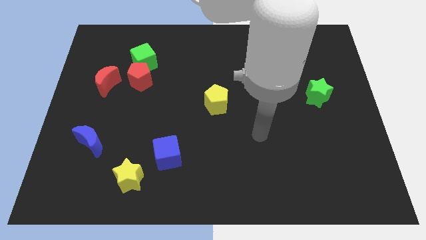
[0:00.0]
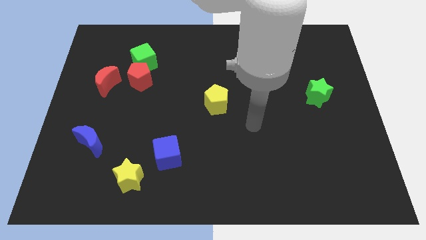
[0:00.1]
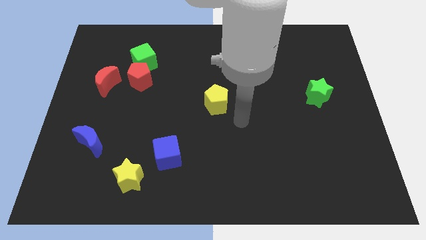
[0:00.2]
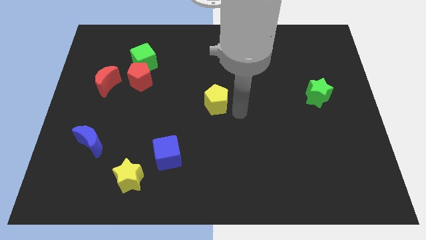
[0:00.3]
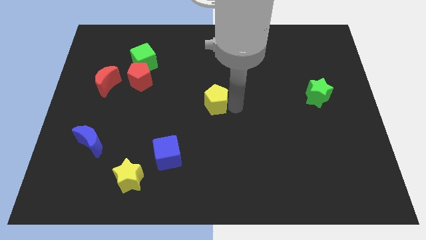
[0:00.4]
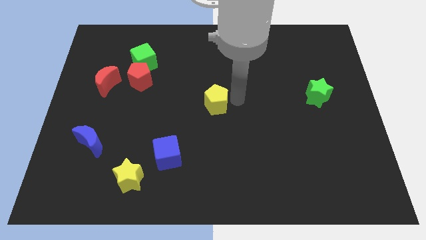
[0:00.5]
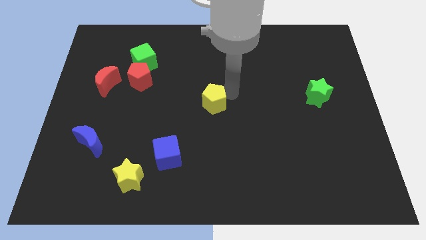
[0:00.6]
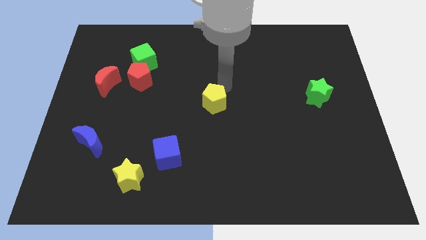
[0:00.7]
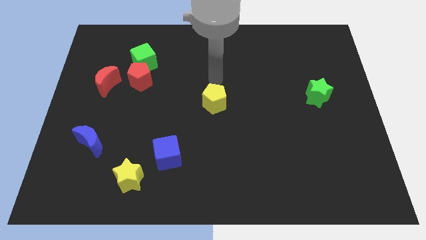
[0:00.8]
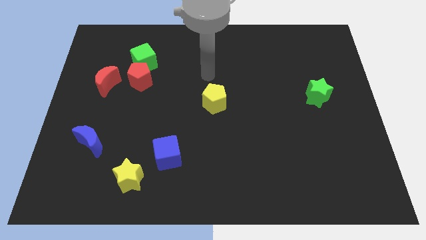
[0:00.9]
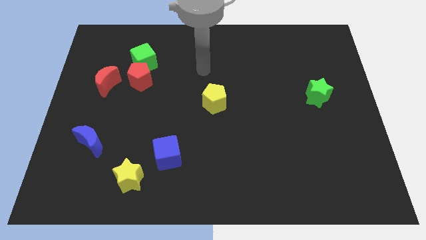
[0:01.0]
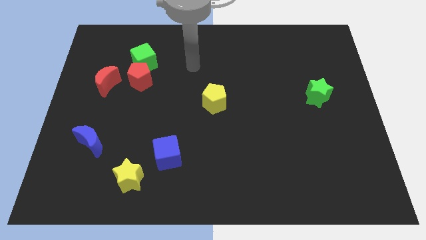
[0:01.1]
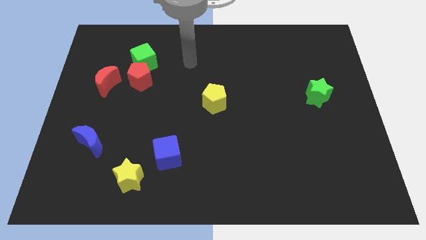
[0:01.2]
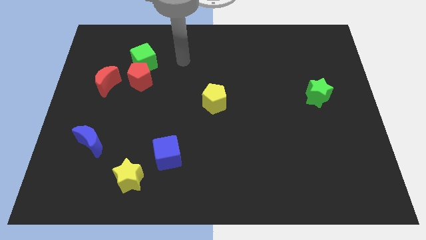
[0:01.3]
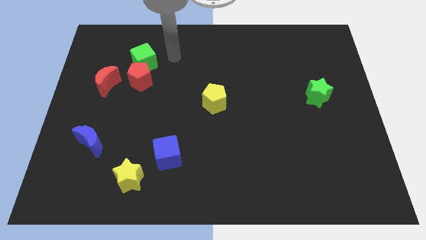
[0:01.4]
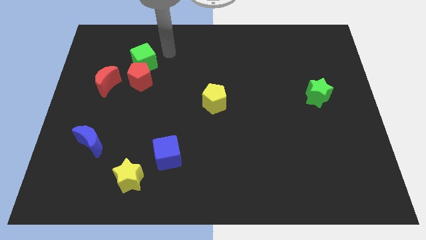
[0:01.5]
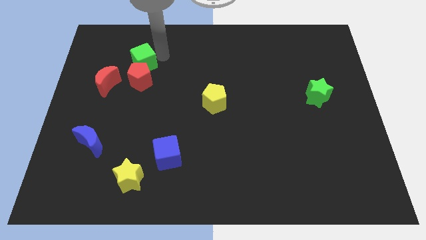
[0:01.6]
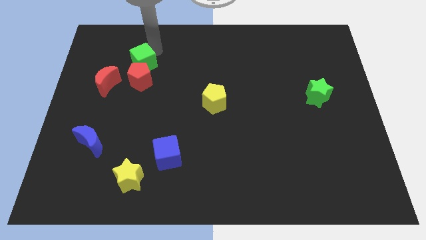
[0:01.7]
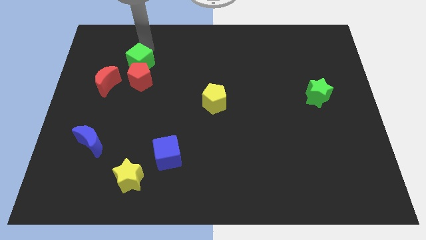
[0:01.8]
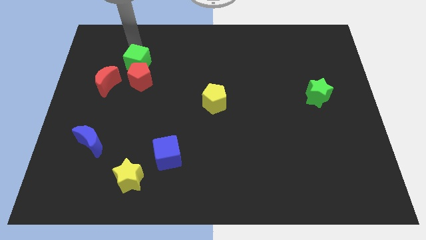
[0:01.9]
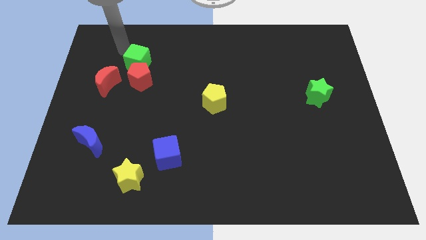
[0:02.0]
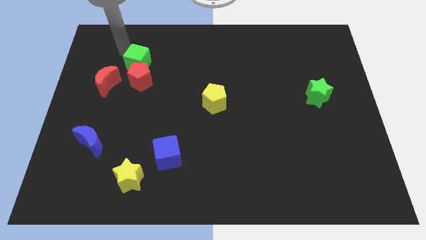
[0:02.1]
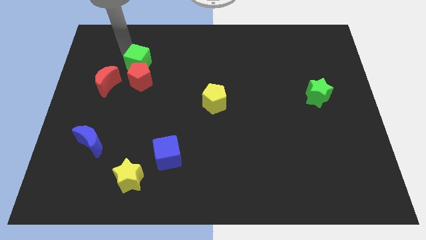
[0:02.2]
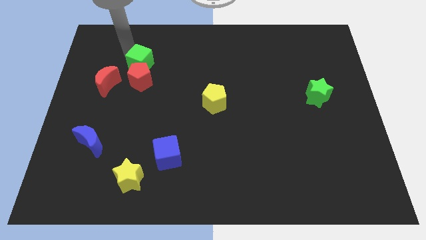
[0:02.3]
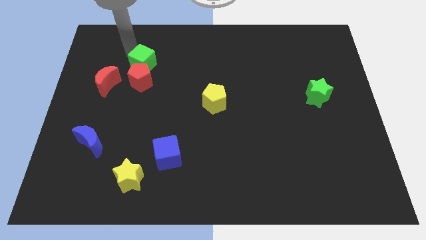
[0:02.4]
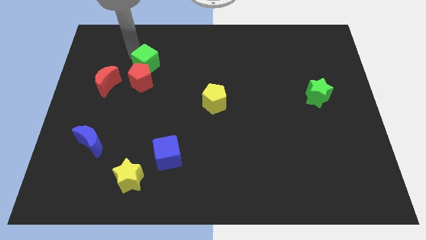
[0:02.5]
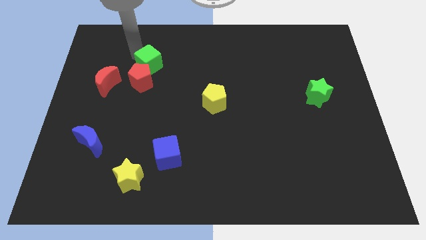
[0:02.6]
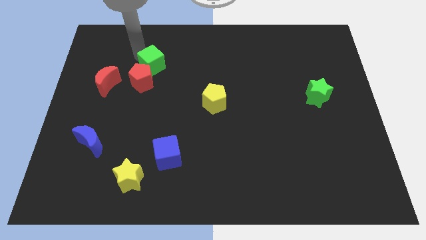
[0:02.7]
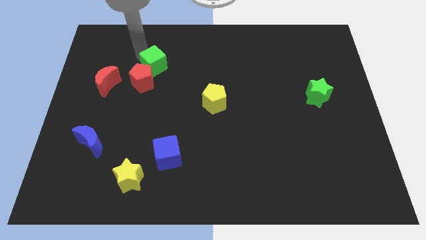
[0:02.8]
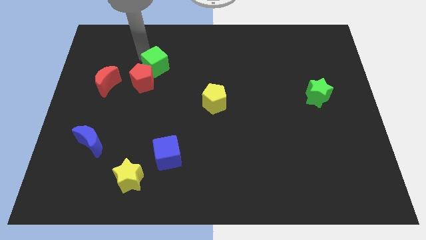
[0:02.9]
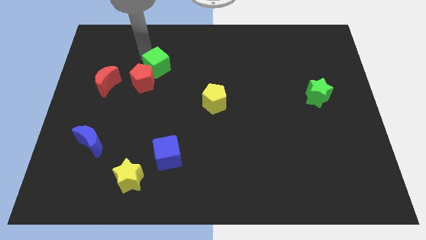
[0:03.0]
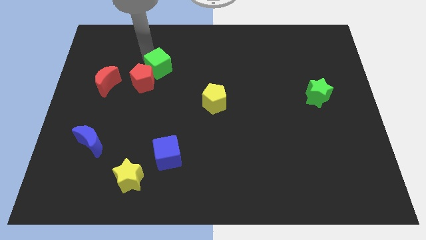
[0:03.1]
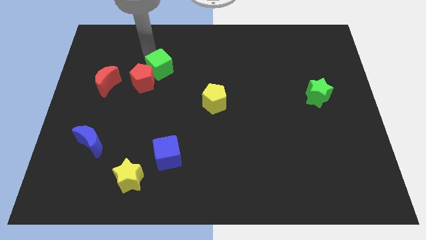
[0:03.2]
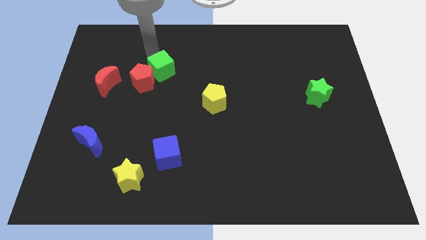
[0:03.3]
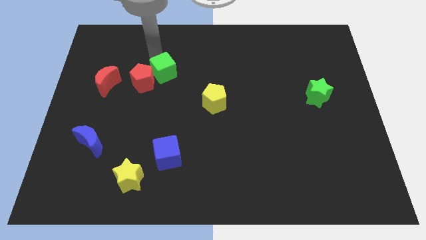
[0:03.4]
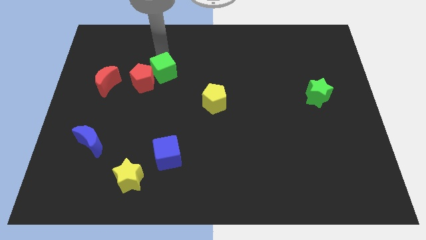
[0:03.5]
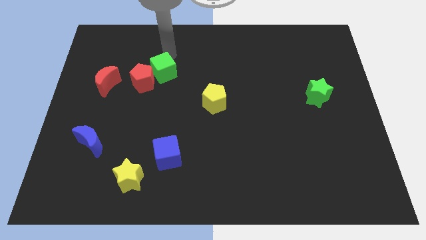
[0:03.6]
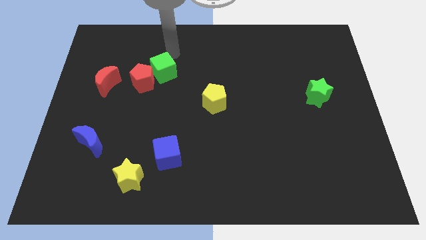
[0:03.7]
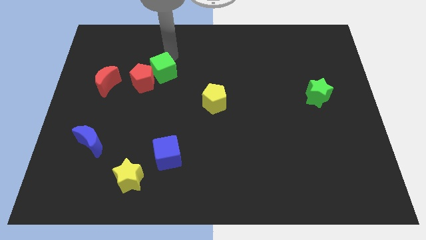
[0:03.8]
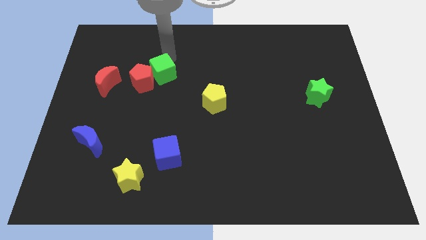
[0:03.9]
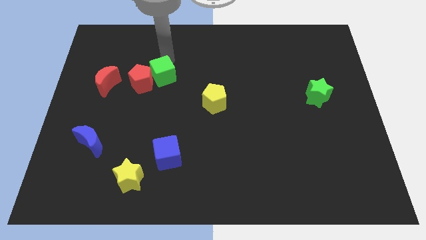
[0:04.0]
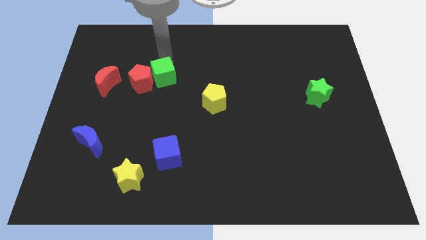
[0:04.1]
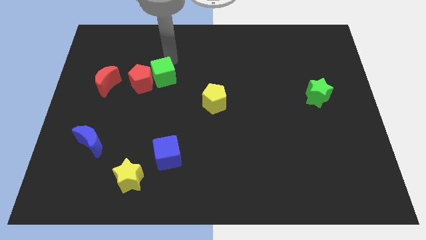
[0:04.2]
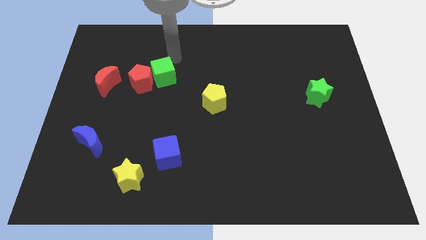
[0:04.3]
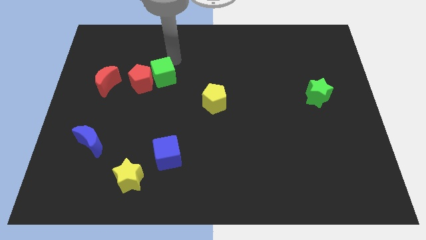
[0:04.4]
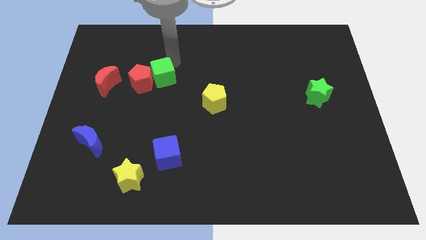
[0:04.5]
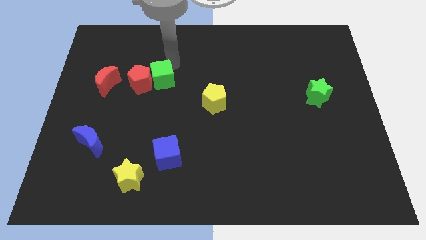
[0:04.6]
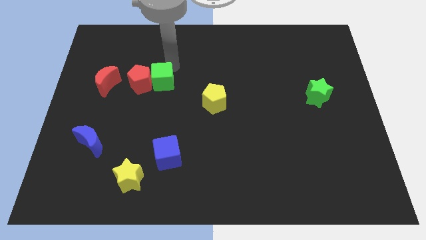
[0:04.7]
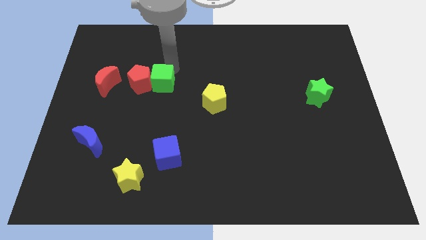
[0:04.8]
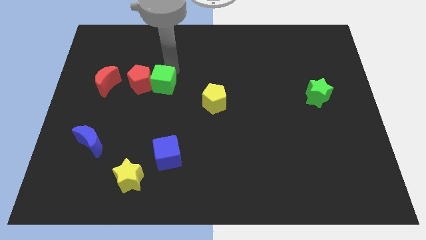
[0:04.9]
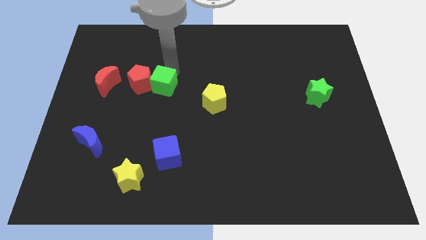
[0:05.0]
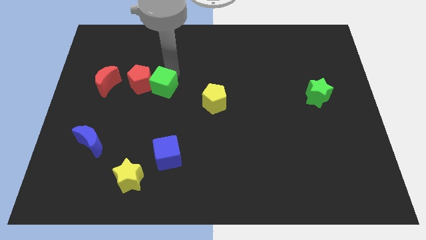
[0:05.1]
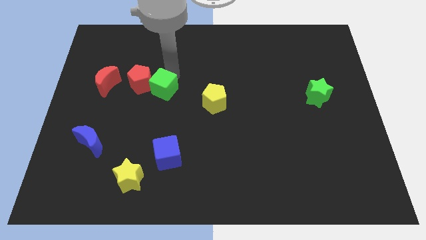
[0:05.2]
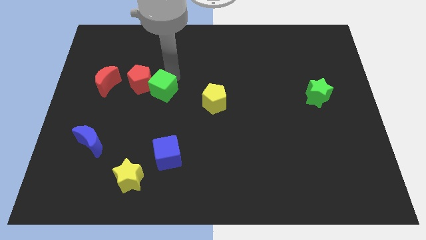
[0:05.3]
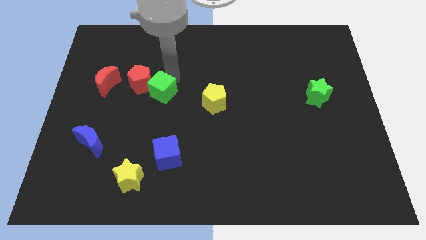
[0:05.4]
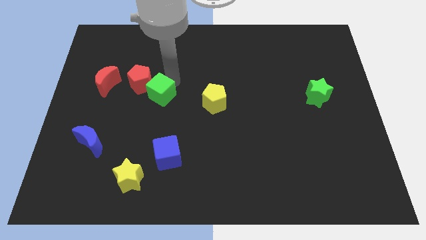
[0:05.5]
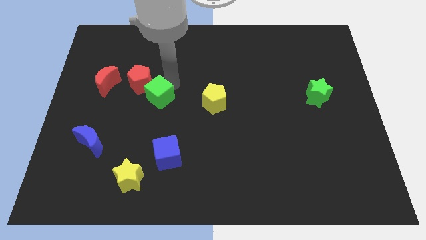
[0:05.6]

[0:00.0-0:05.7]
push the green cube to the bottom side of the red pentagon

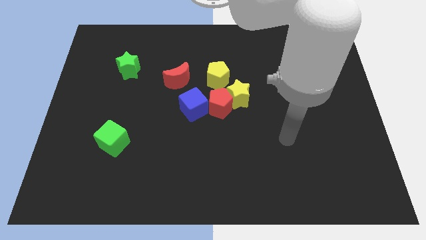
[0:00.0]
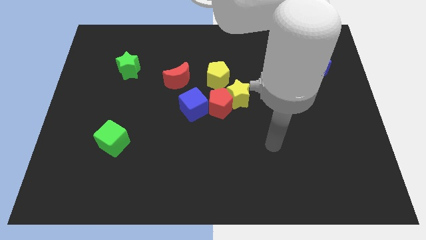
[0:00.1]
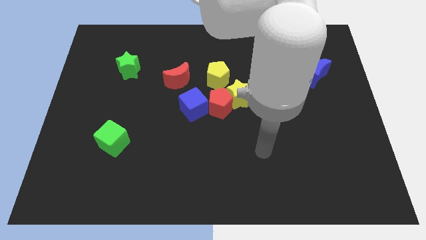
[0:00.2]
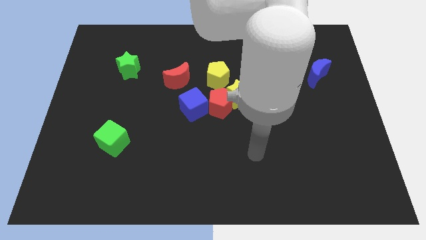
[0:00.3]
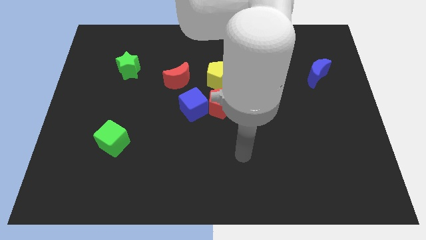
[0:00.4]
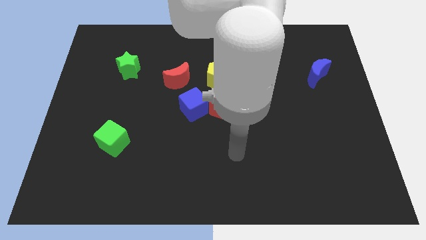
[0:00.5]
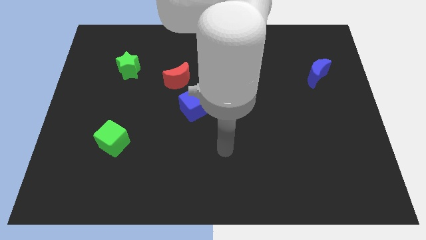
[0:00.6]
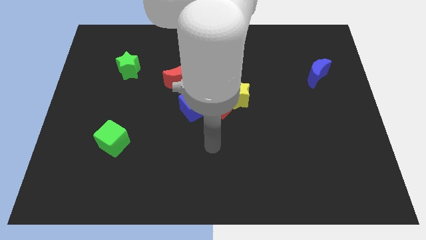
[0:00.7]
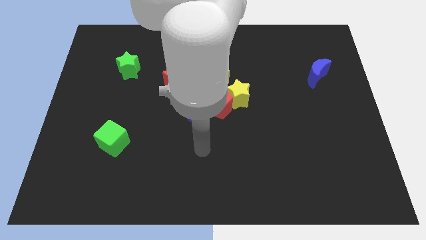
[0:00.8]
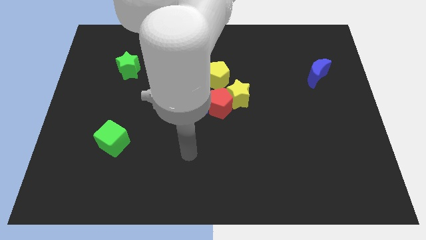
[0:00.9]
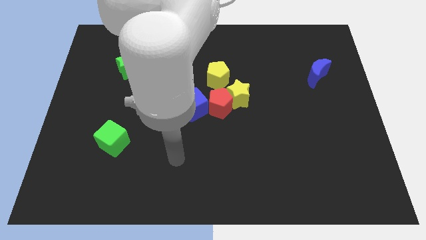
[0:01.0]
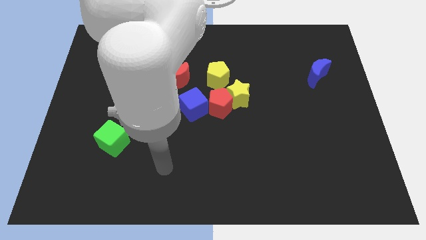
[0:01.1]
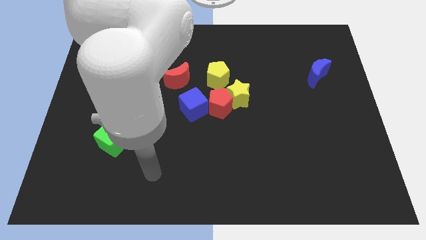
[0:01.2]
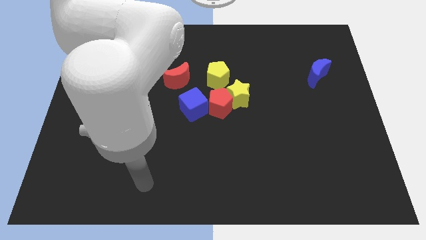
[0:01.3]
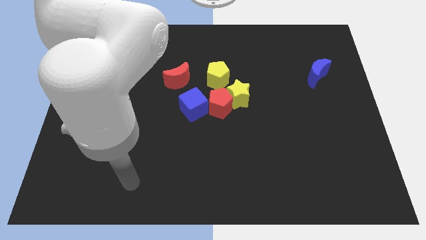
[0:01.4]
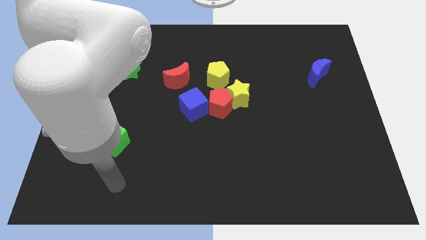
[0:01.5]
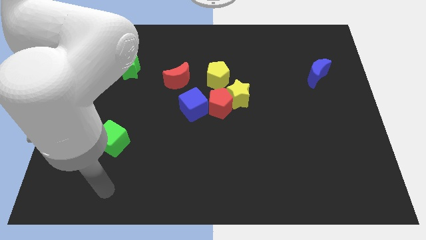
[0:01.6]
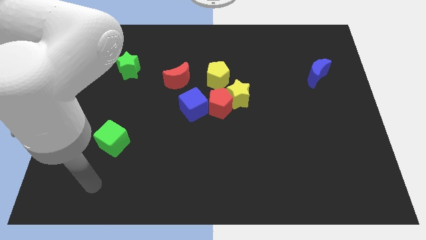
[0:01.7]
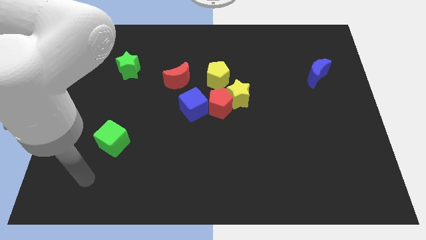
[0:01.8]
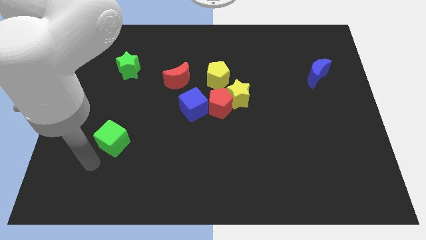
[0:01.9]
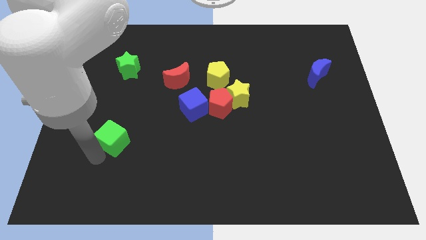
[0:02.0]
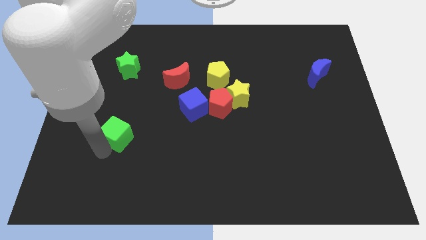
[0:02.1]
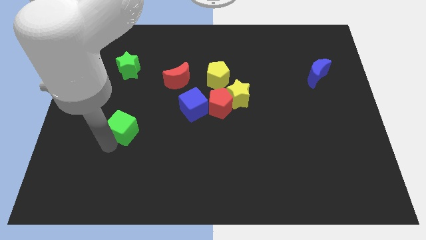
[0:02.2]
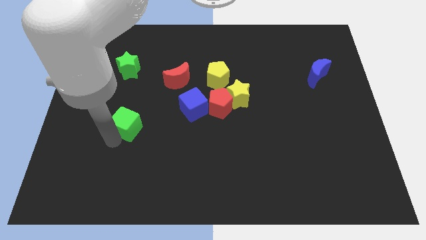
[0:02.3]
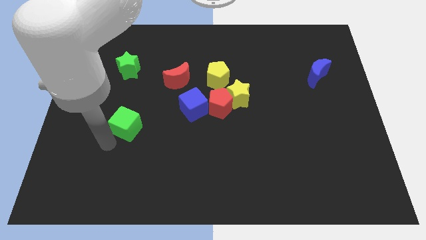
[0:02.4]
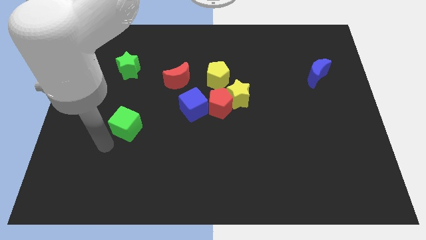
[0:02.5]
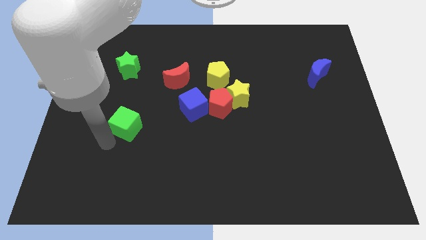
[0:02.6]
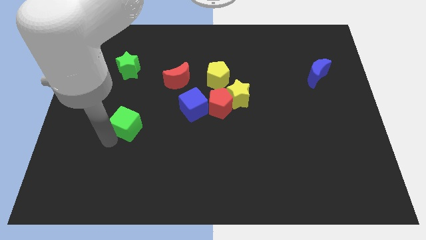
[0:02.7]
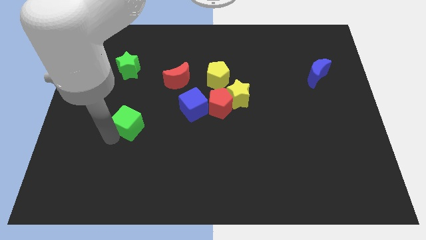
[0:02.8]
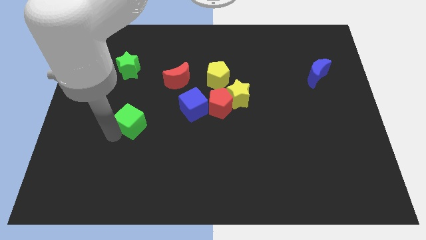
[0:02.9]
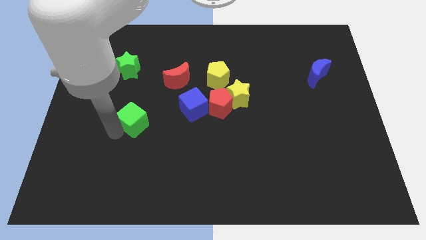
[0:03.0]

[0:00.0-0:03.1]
push the green cube to the left of the blue cube
